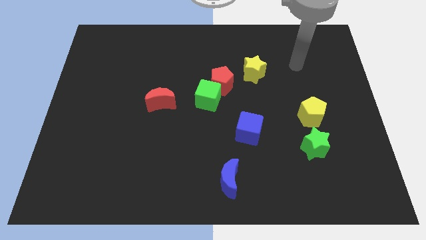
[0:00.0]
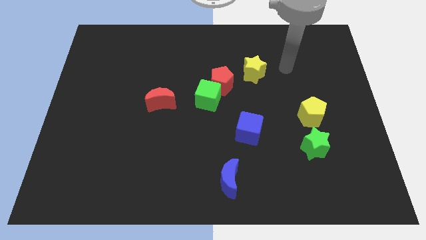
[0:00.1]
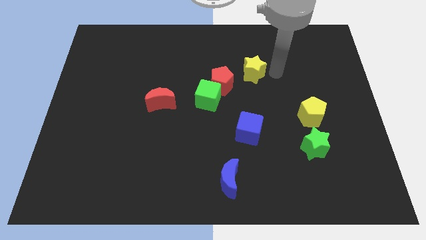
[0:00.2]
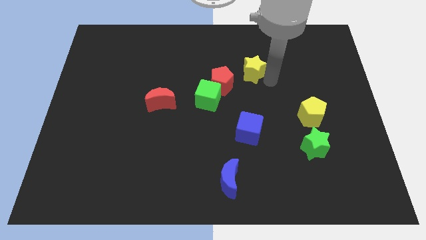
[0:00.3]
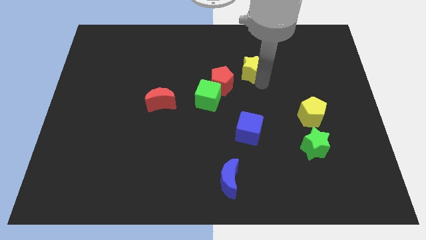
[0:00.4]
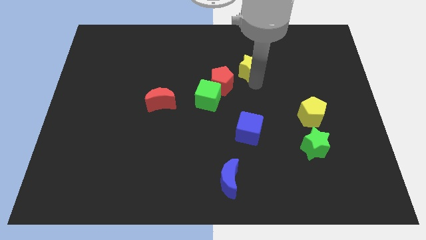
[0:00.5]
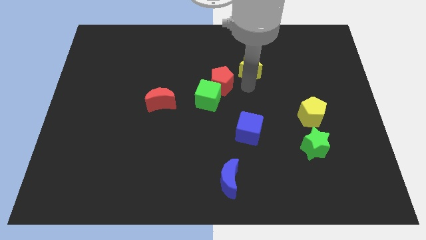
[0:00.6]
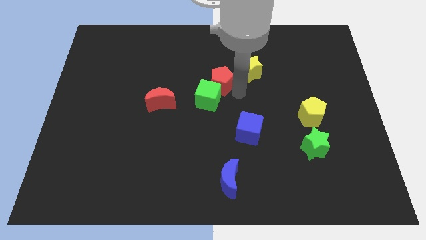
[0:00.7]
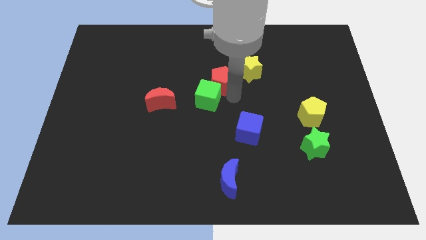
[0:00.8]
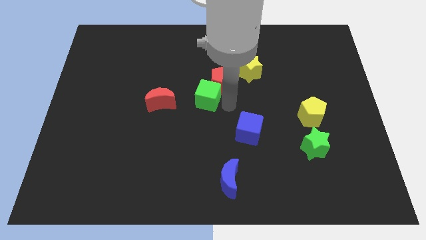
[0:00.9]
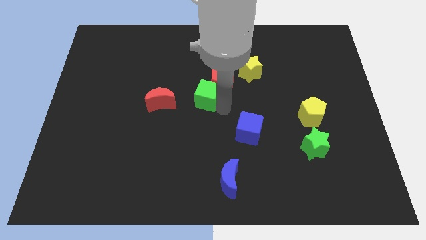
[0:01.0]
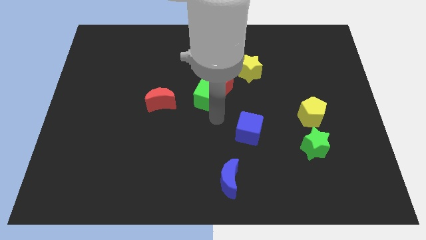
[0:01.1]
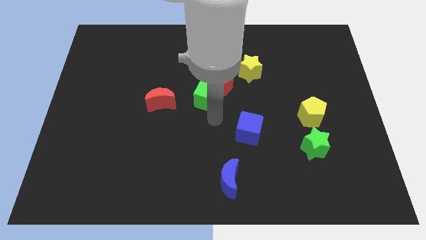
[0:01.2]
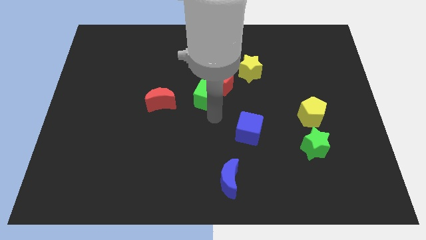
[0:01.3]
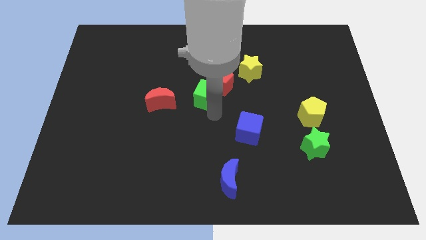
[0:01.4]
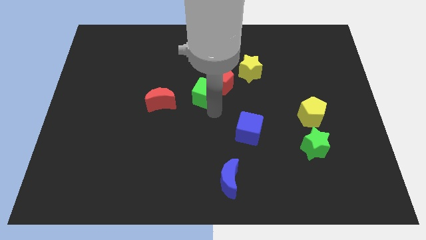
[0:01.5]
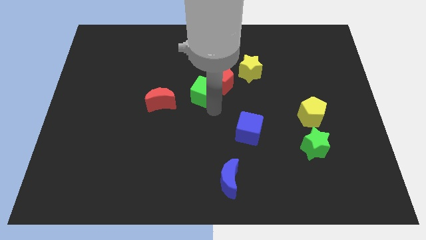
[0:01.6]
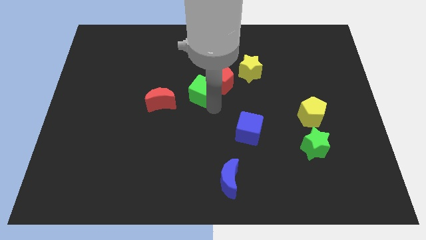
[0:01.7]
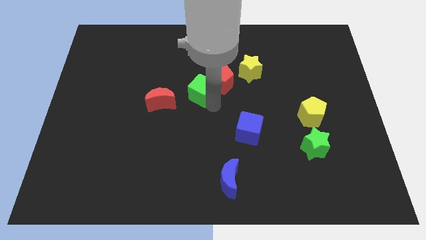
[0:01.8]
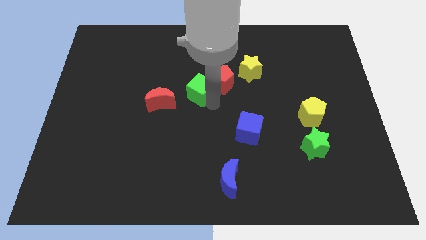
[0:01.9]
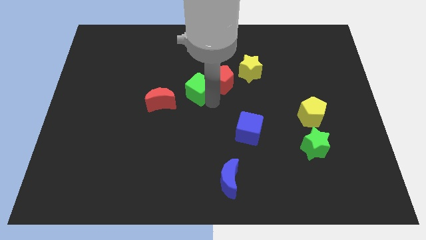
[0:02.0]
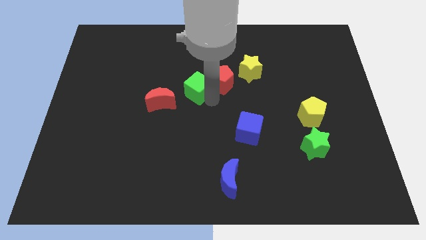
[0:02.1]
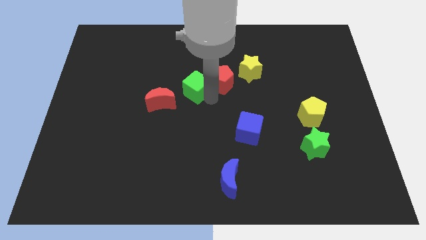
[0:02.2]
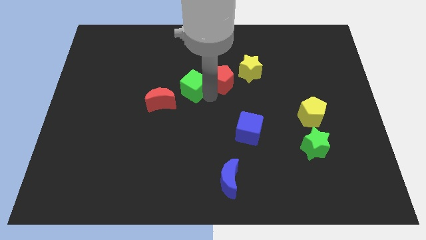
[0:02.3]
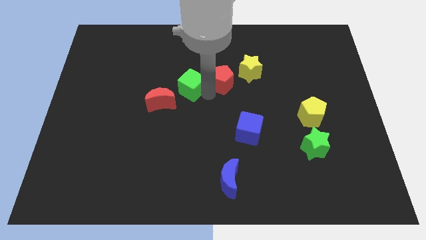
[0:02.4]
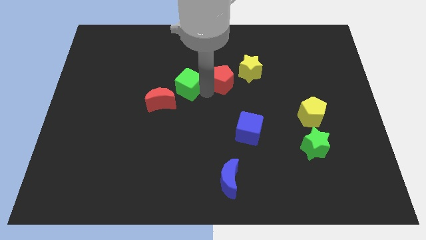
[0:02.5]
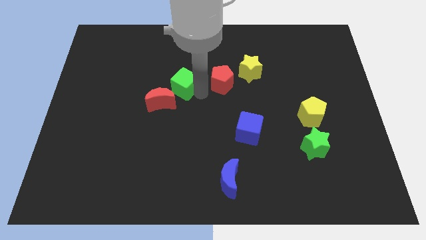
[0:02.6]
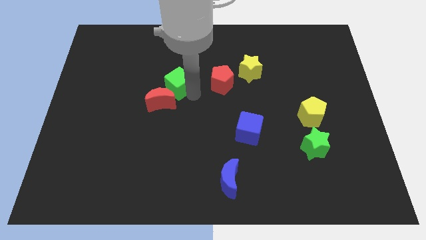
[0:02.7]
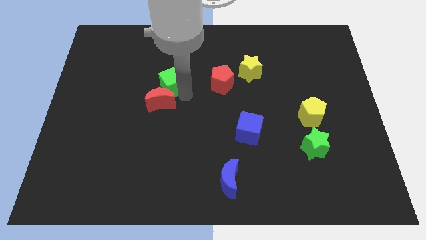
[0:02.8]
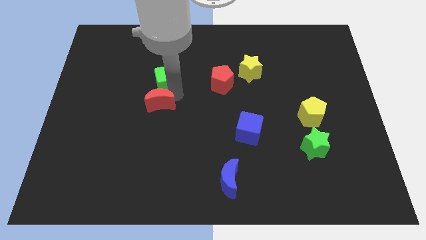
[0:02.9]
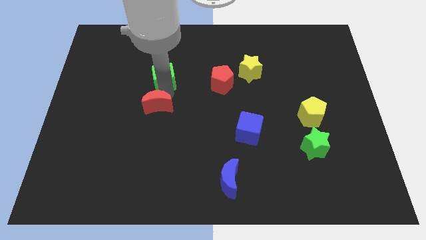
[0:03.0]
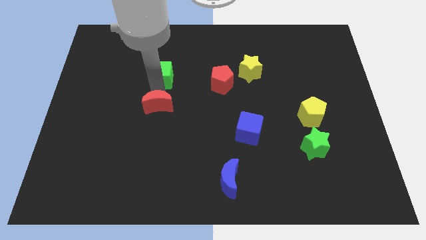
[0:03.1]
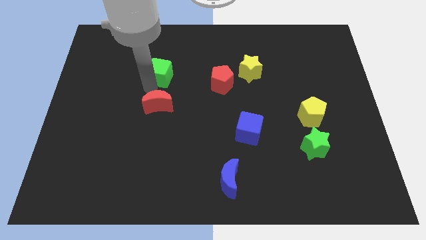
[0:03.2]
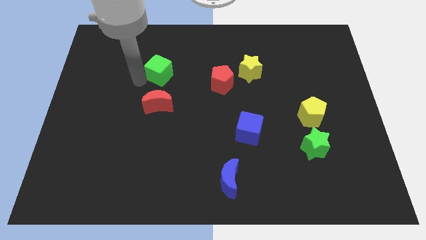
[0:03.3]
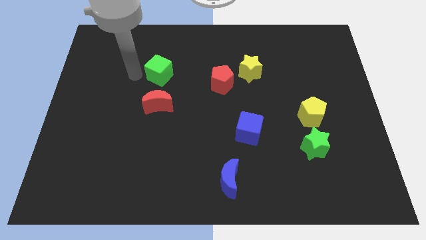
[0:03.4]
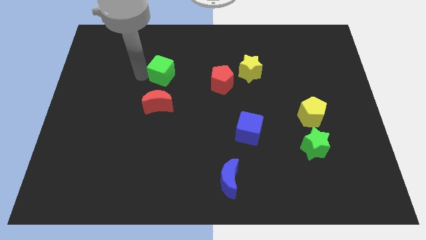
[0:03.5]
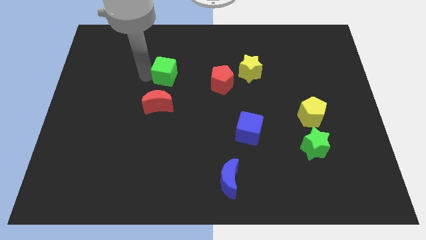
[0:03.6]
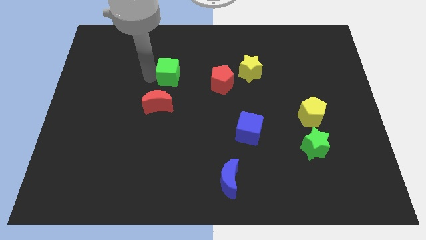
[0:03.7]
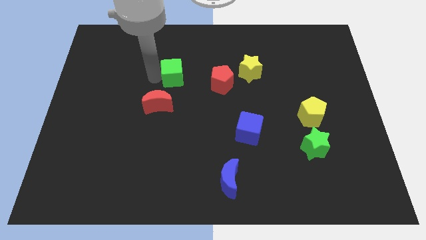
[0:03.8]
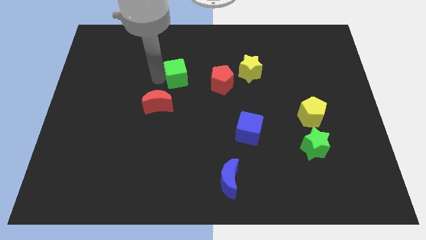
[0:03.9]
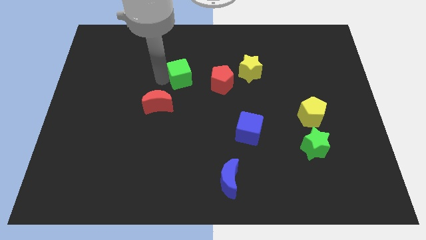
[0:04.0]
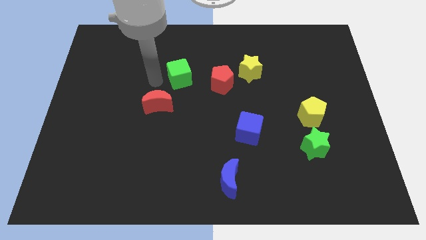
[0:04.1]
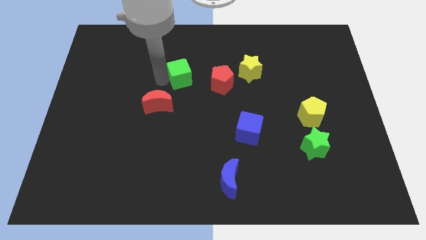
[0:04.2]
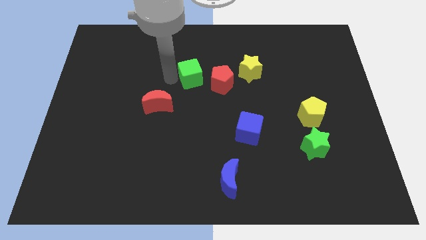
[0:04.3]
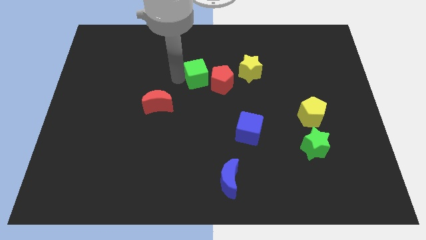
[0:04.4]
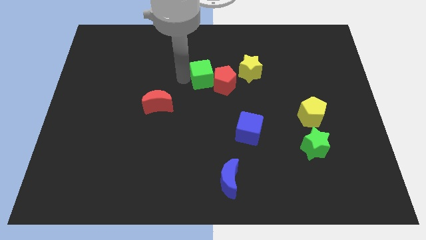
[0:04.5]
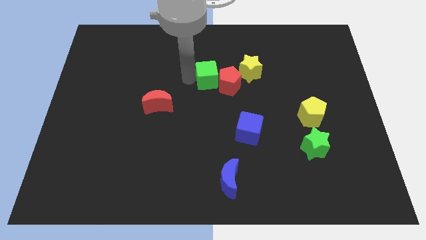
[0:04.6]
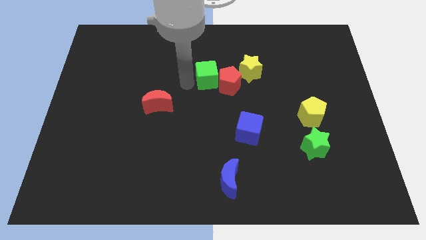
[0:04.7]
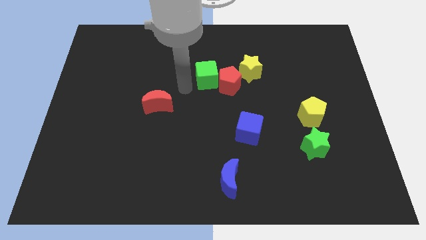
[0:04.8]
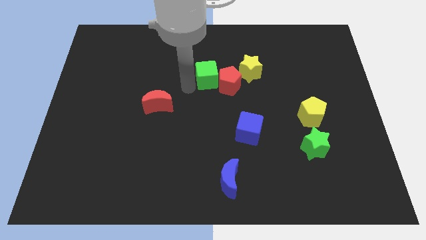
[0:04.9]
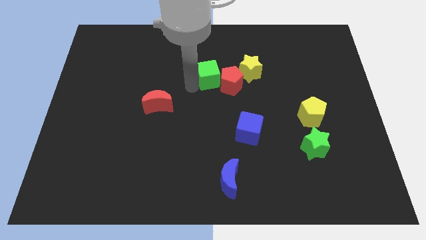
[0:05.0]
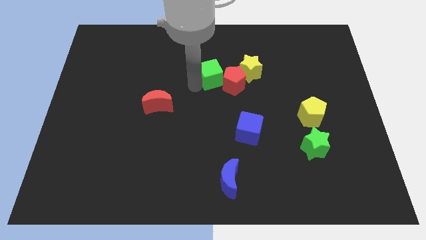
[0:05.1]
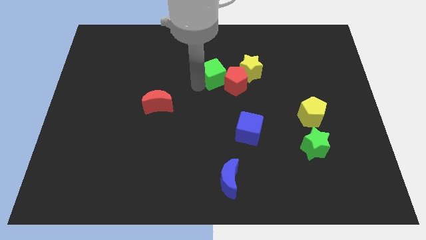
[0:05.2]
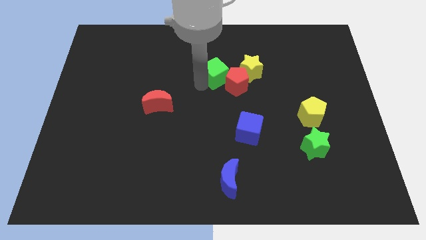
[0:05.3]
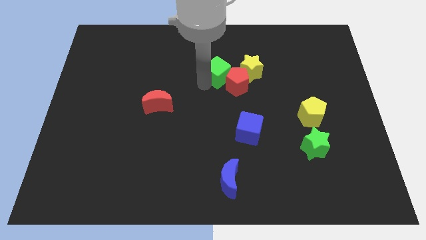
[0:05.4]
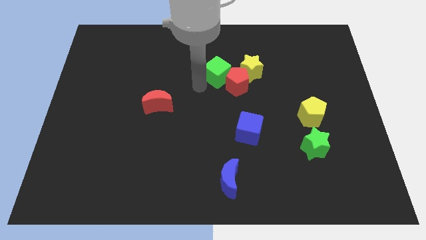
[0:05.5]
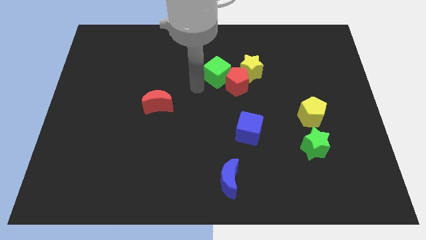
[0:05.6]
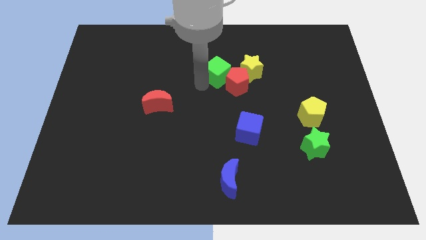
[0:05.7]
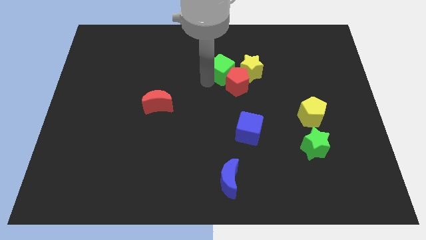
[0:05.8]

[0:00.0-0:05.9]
move the green cube diagonally upwards and right slightly

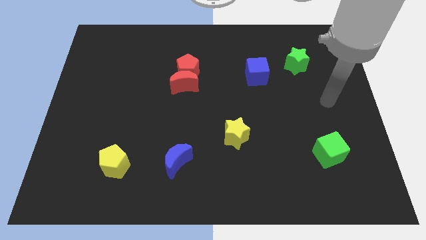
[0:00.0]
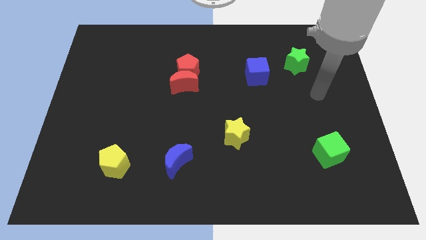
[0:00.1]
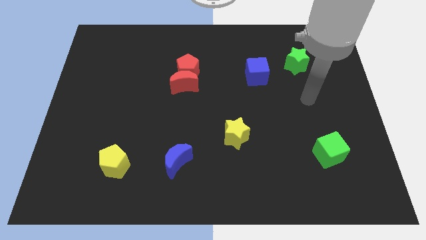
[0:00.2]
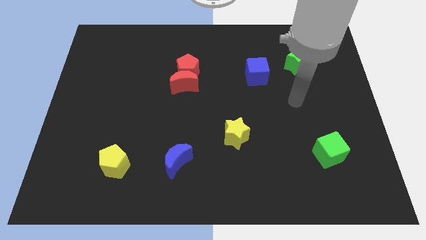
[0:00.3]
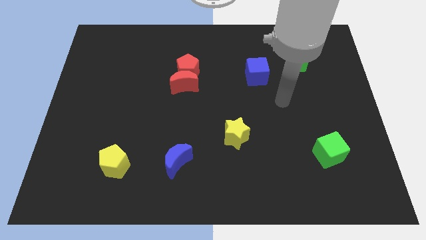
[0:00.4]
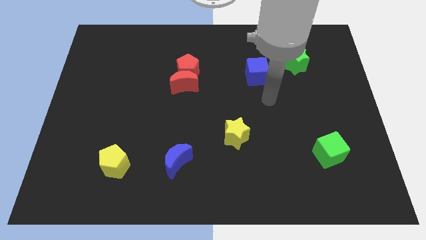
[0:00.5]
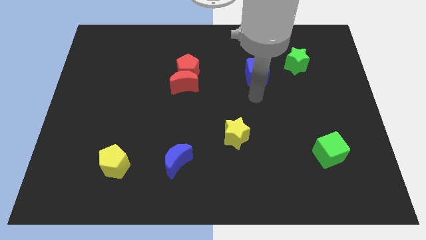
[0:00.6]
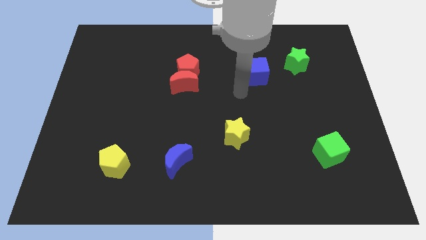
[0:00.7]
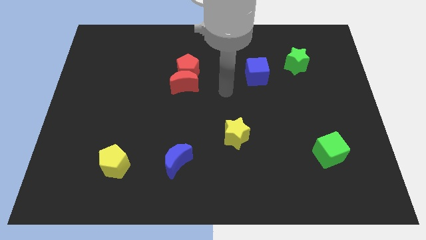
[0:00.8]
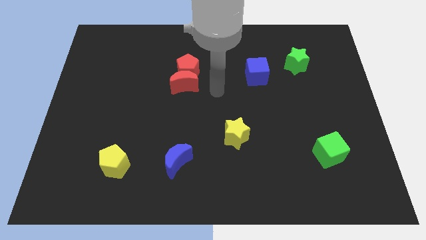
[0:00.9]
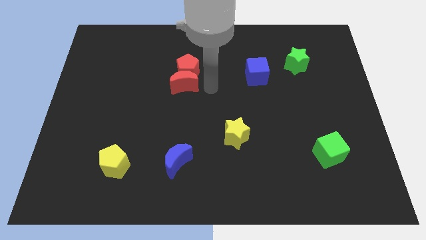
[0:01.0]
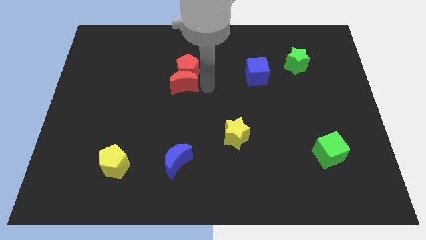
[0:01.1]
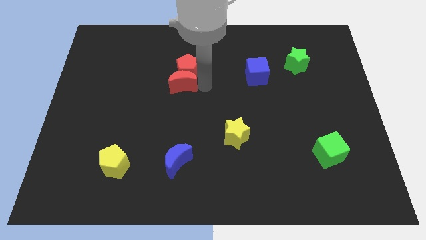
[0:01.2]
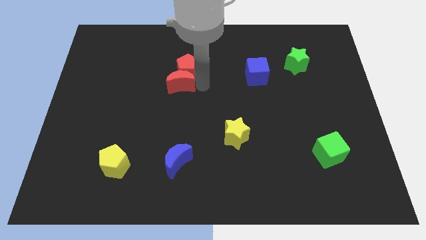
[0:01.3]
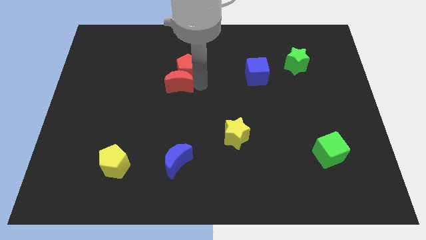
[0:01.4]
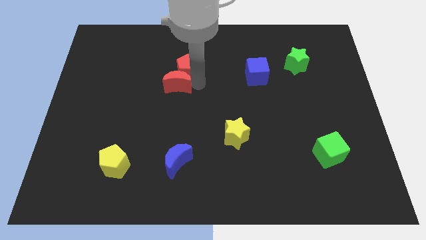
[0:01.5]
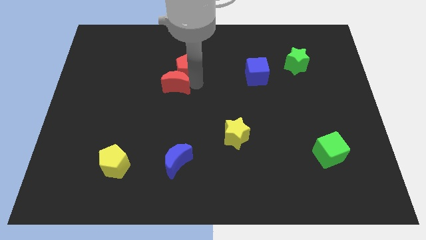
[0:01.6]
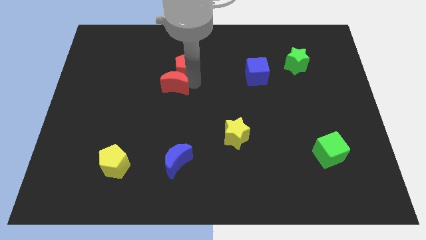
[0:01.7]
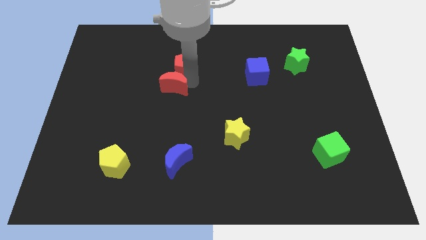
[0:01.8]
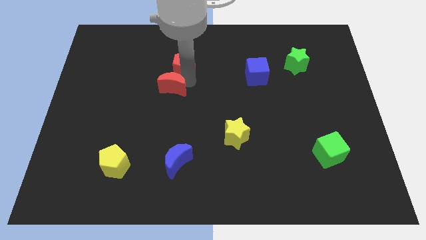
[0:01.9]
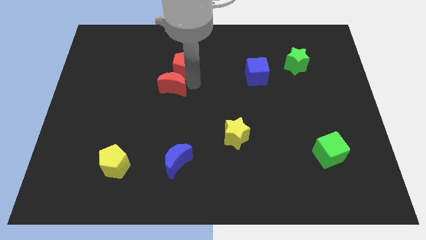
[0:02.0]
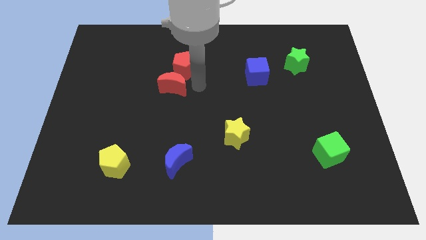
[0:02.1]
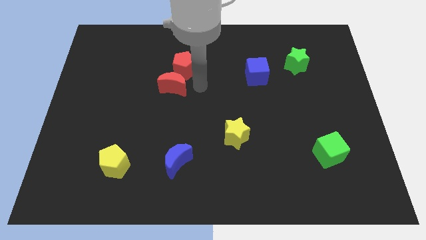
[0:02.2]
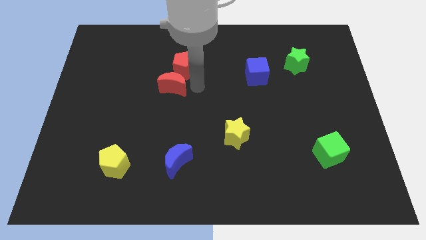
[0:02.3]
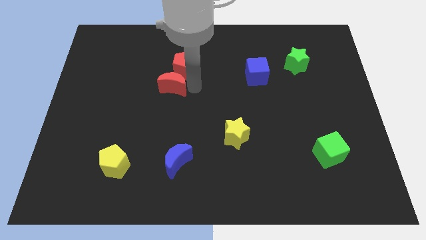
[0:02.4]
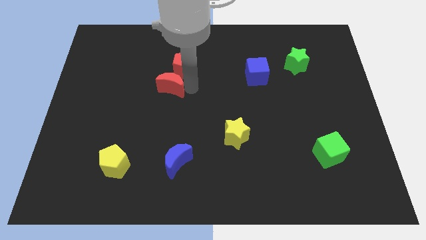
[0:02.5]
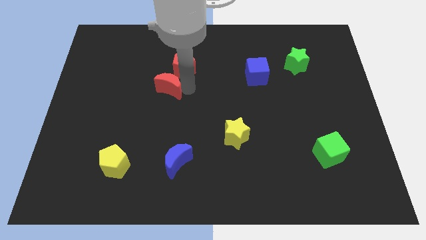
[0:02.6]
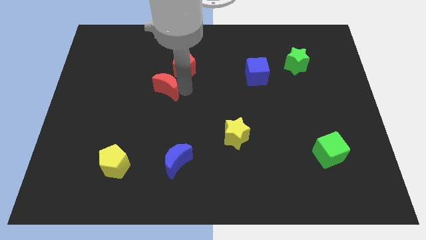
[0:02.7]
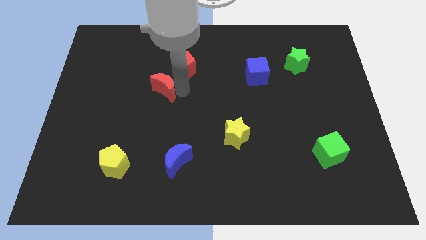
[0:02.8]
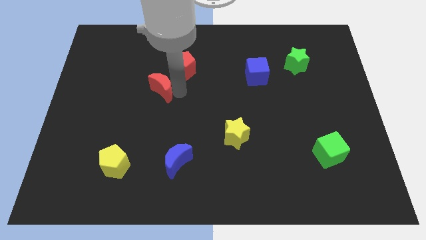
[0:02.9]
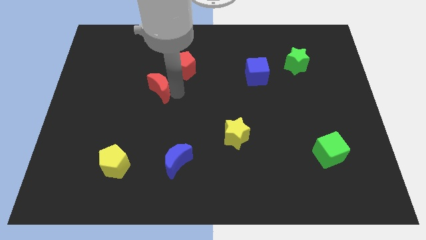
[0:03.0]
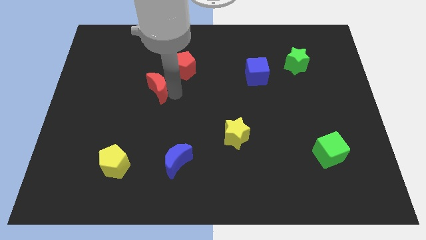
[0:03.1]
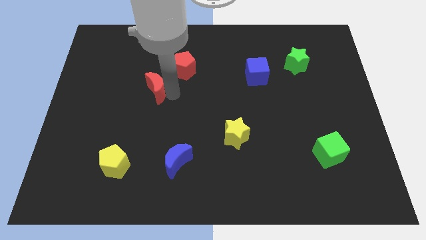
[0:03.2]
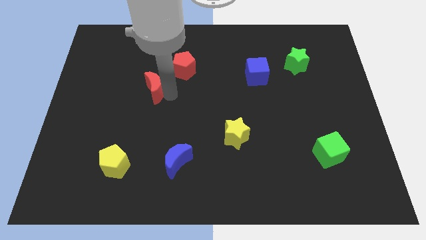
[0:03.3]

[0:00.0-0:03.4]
move the red moon somewhat left
